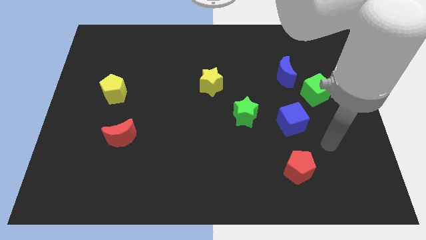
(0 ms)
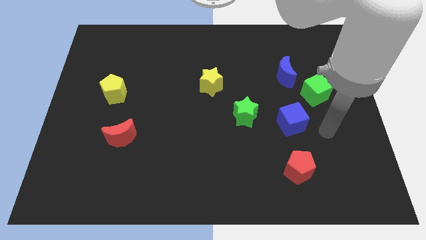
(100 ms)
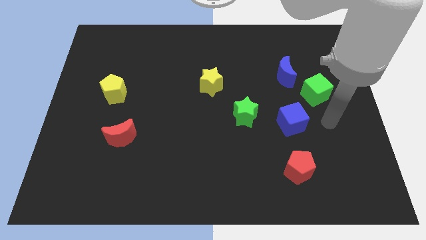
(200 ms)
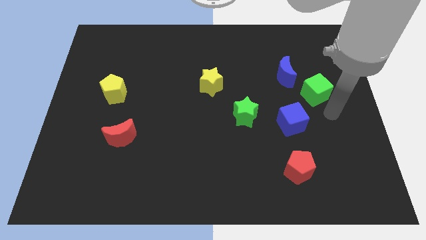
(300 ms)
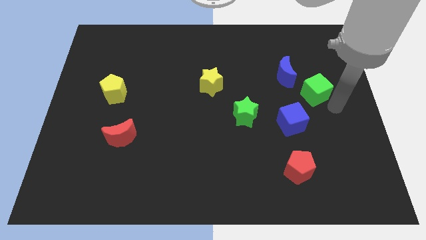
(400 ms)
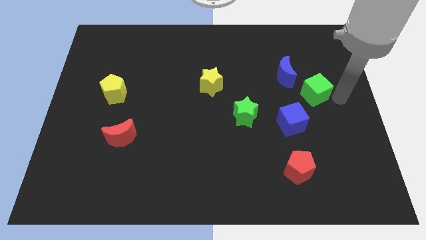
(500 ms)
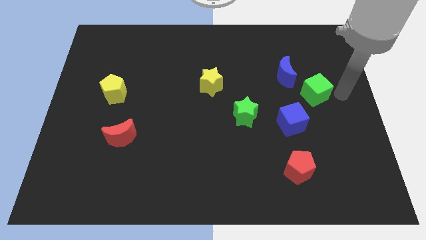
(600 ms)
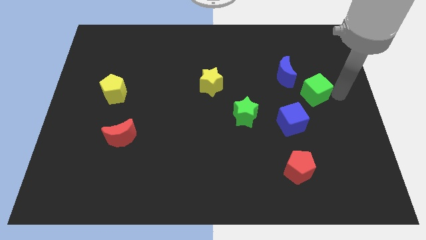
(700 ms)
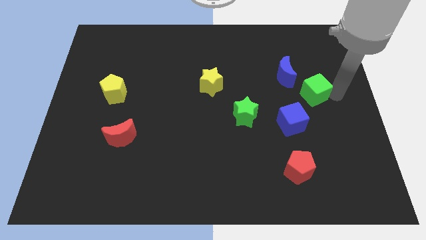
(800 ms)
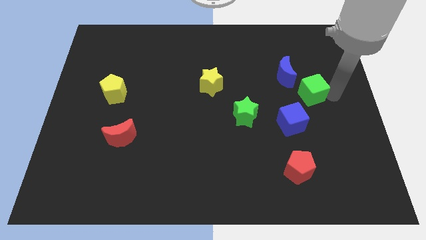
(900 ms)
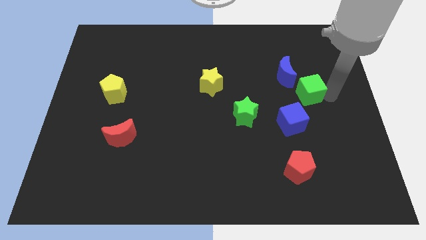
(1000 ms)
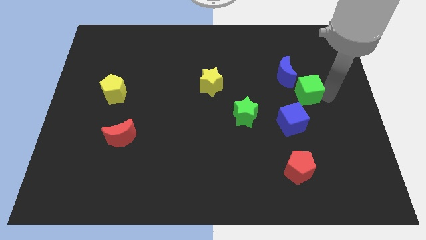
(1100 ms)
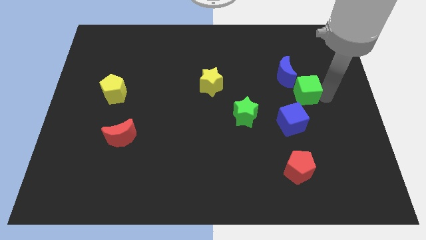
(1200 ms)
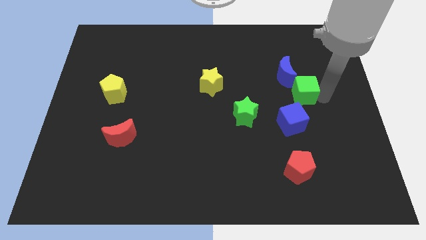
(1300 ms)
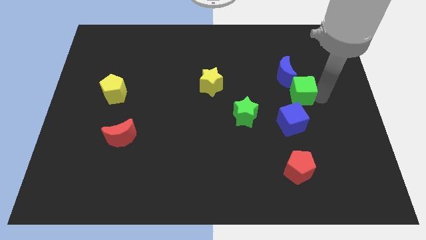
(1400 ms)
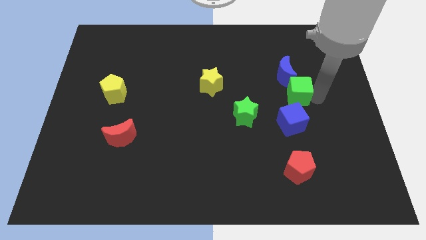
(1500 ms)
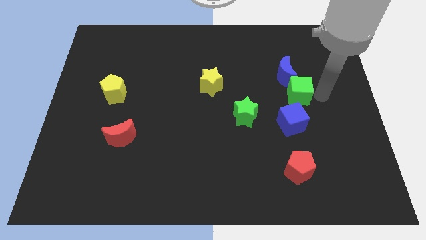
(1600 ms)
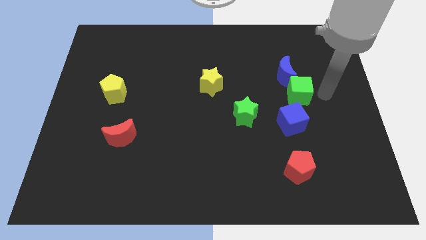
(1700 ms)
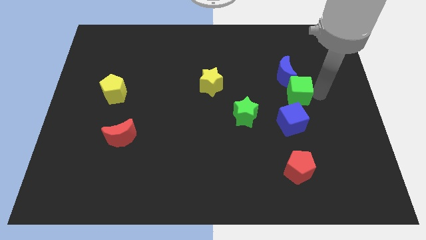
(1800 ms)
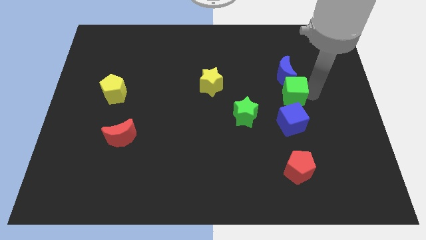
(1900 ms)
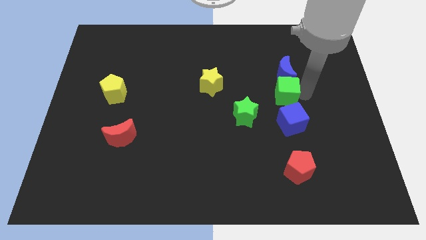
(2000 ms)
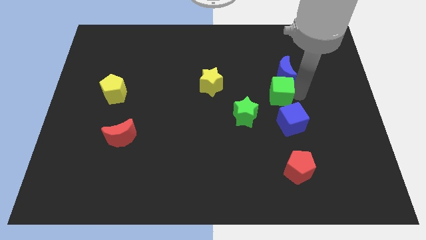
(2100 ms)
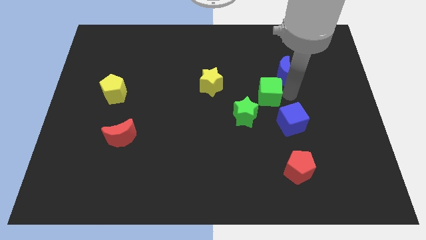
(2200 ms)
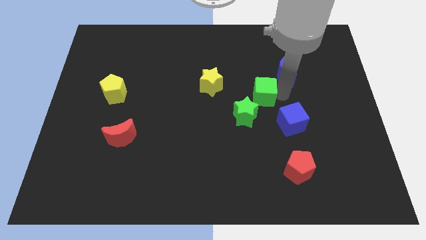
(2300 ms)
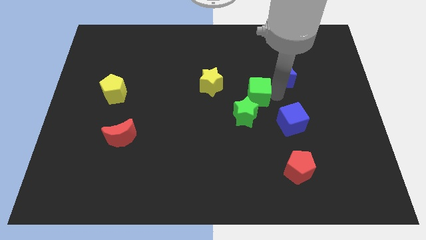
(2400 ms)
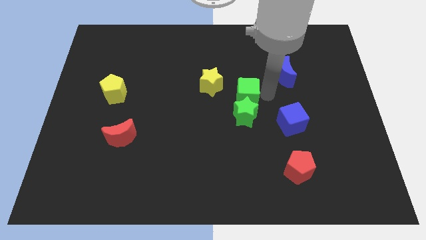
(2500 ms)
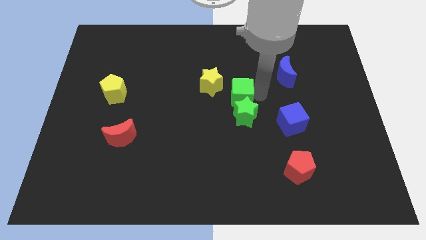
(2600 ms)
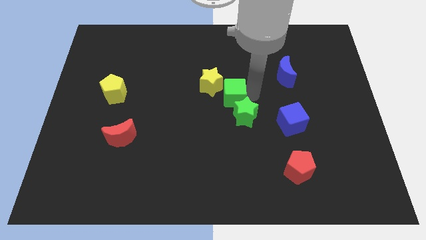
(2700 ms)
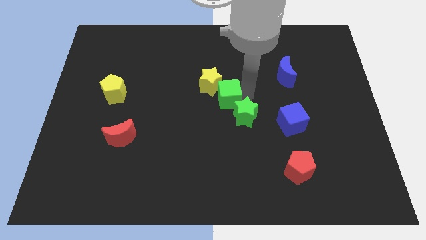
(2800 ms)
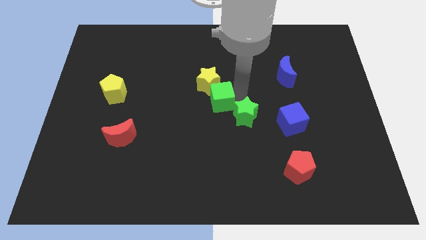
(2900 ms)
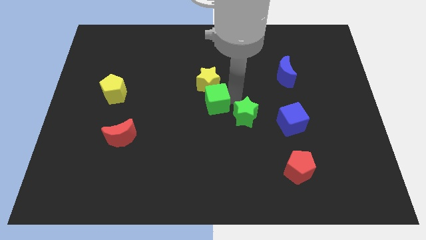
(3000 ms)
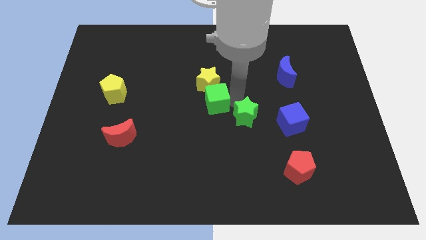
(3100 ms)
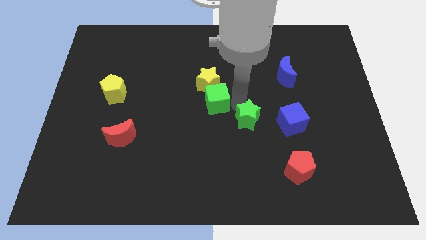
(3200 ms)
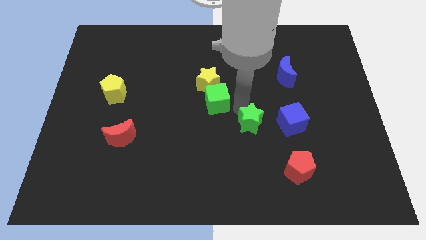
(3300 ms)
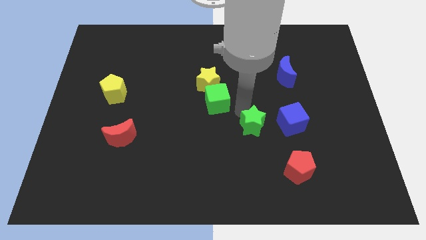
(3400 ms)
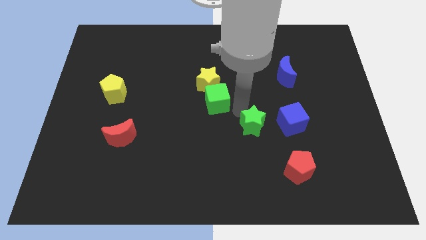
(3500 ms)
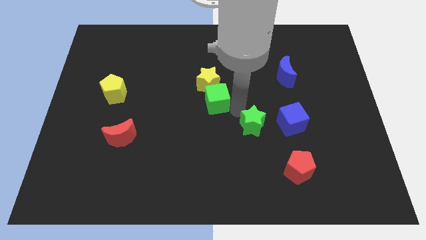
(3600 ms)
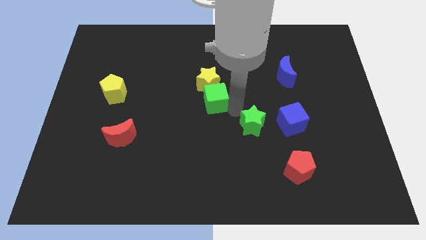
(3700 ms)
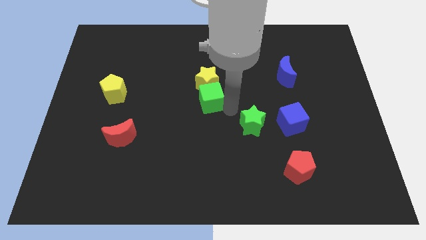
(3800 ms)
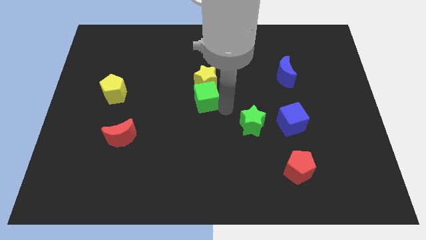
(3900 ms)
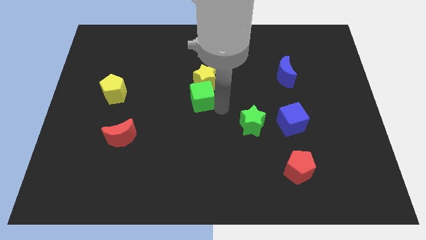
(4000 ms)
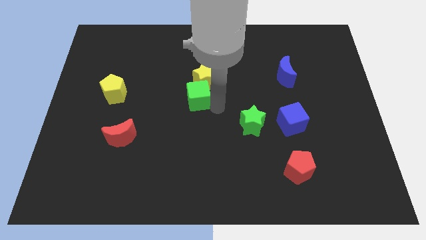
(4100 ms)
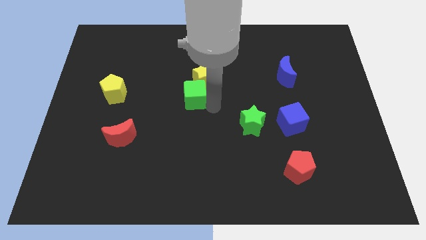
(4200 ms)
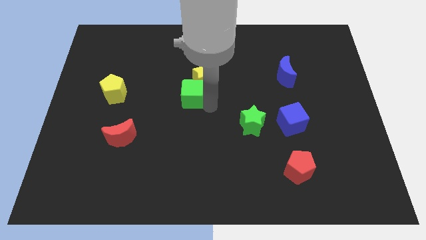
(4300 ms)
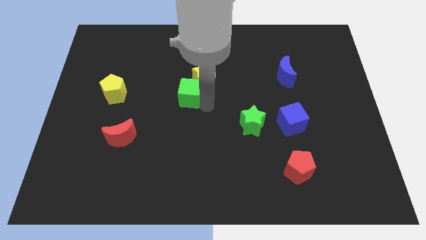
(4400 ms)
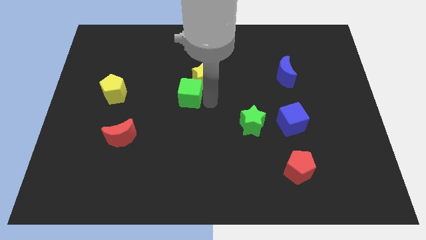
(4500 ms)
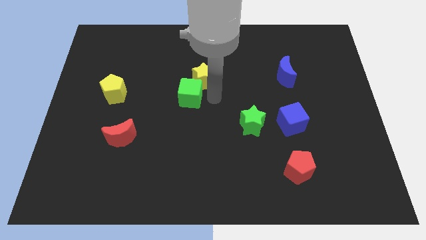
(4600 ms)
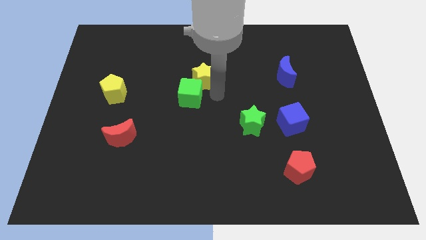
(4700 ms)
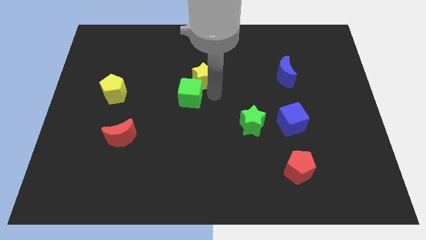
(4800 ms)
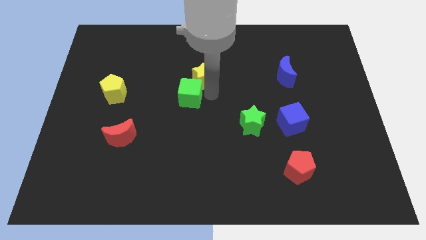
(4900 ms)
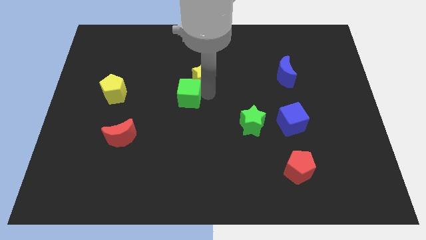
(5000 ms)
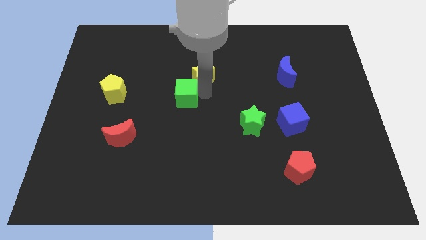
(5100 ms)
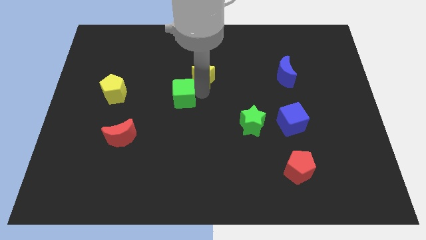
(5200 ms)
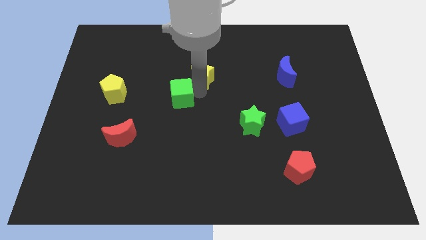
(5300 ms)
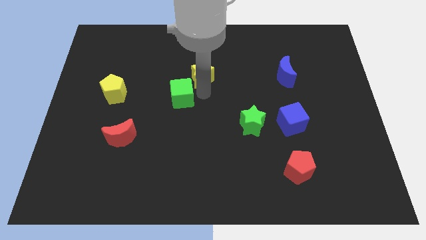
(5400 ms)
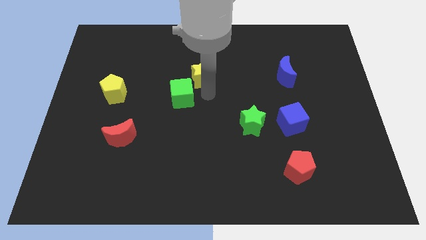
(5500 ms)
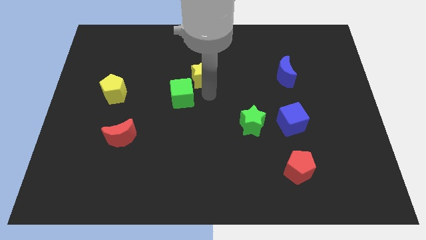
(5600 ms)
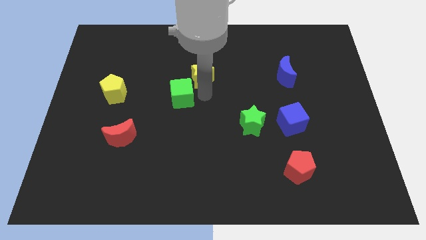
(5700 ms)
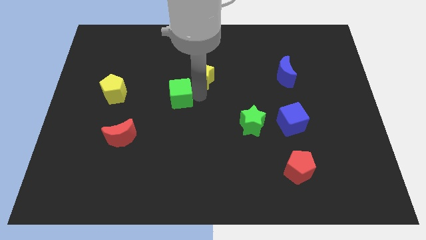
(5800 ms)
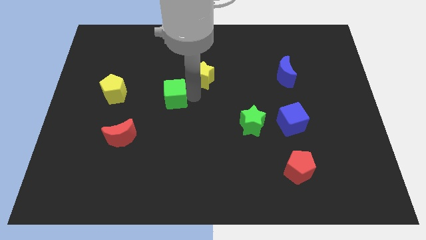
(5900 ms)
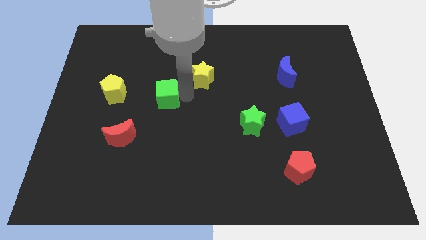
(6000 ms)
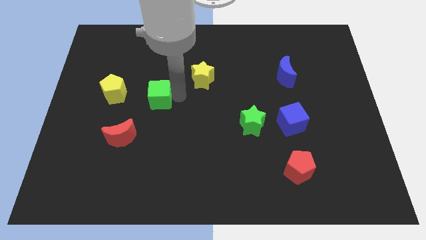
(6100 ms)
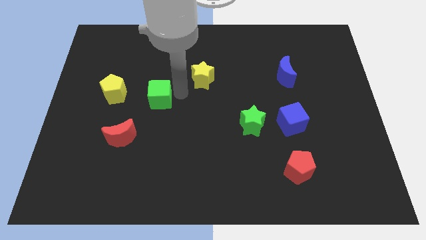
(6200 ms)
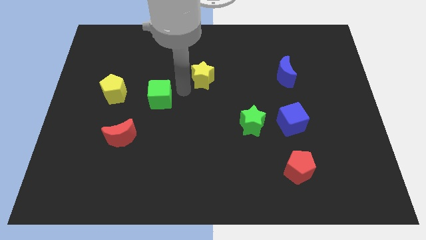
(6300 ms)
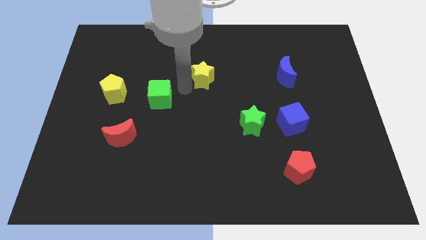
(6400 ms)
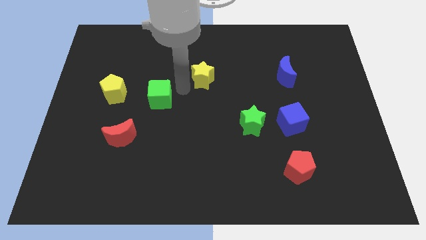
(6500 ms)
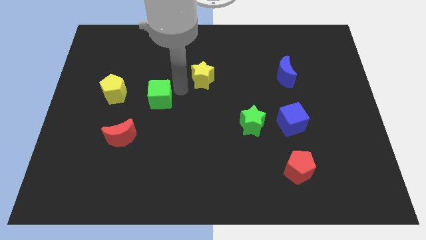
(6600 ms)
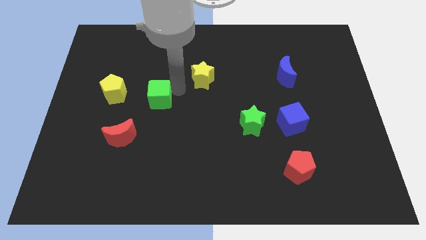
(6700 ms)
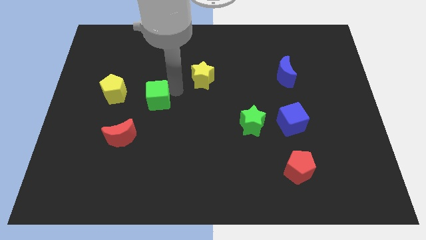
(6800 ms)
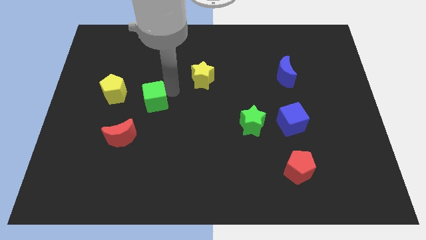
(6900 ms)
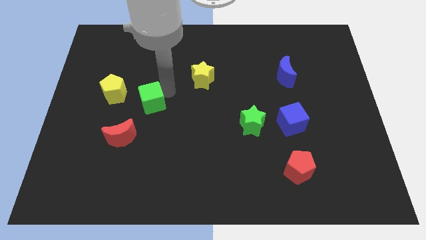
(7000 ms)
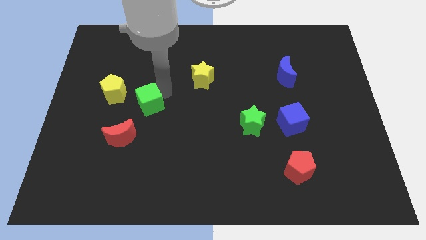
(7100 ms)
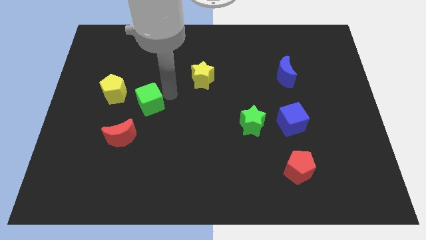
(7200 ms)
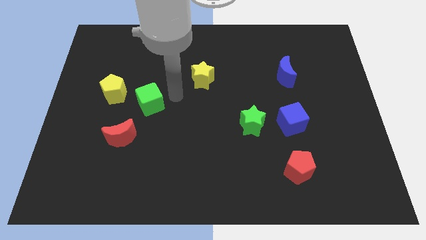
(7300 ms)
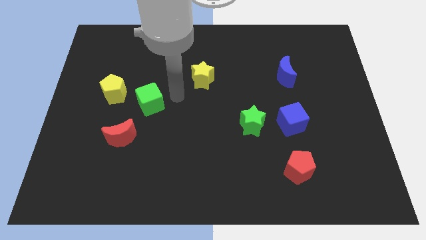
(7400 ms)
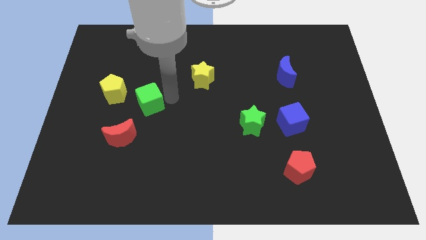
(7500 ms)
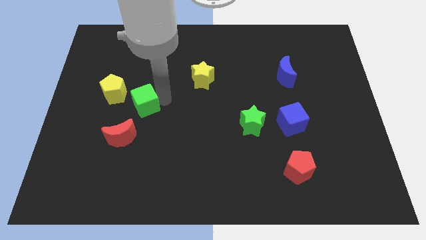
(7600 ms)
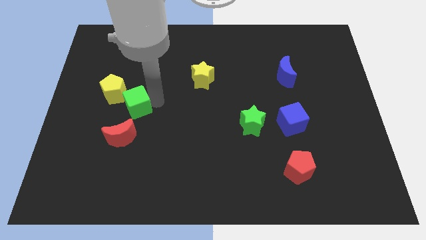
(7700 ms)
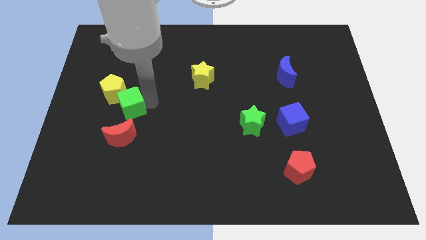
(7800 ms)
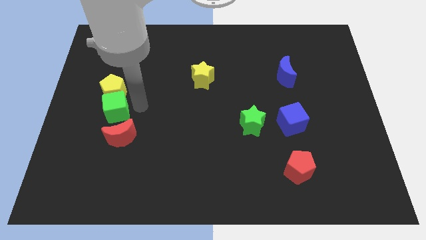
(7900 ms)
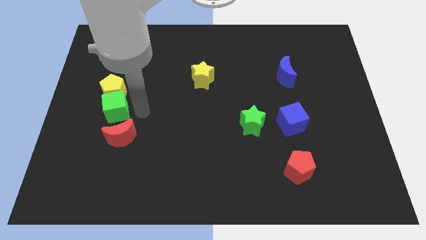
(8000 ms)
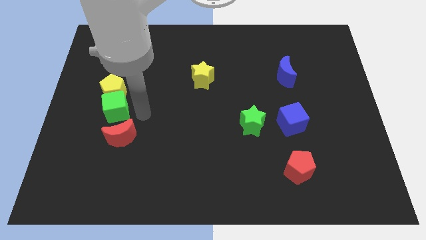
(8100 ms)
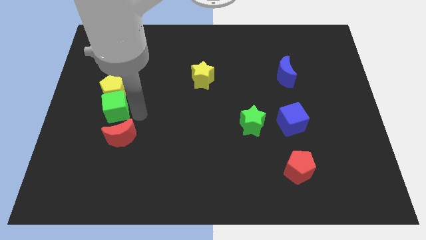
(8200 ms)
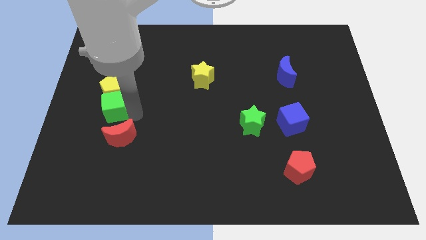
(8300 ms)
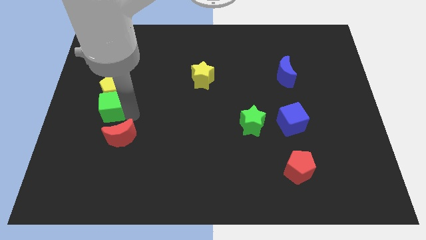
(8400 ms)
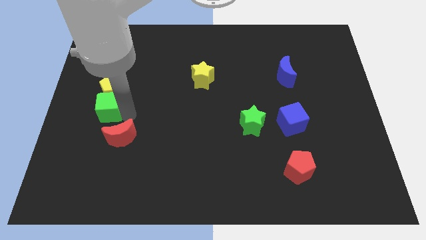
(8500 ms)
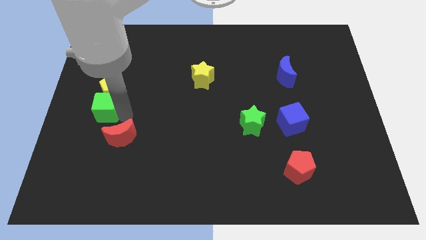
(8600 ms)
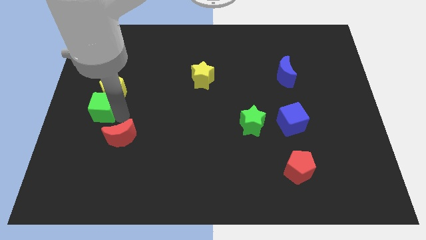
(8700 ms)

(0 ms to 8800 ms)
move the green cube to the left side of the board
